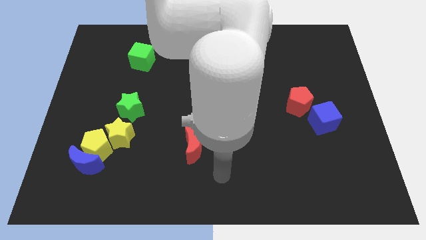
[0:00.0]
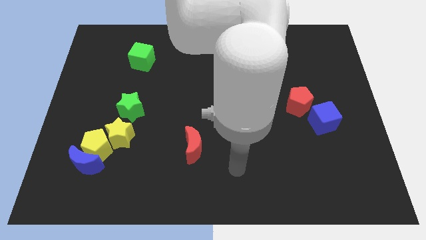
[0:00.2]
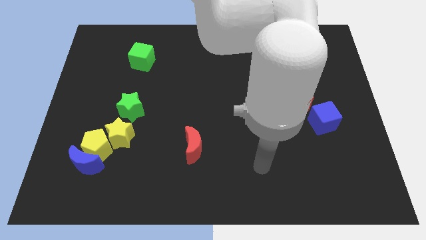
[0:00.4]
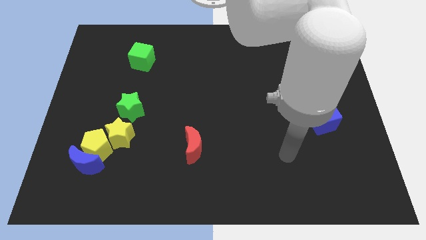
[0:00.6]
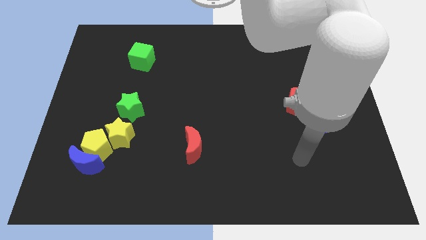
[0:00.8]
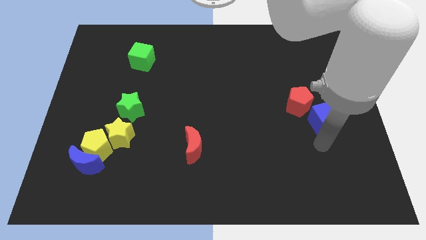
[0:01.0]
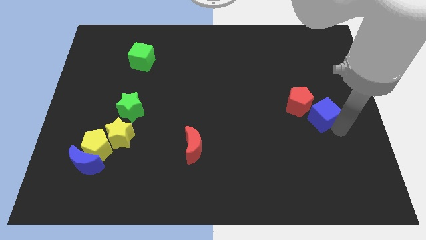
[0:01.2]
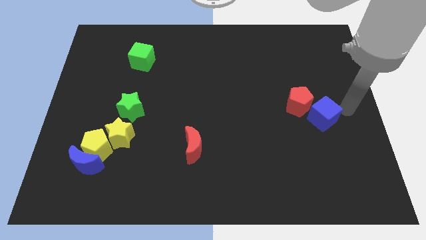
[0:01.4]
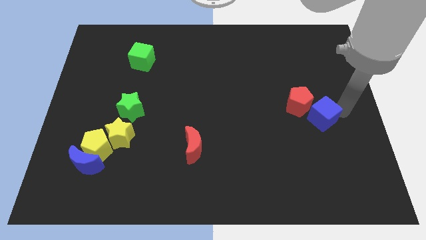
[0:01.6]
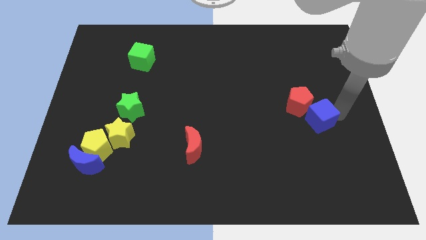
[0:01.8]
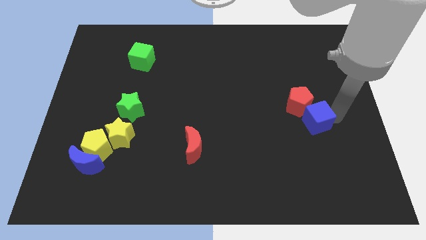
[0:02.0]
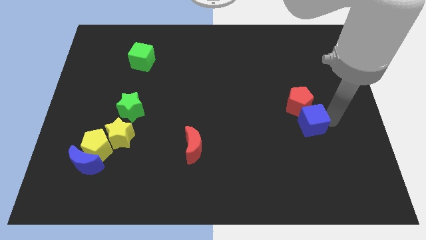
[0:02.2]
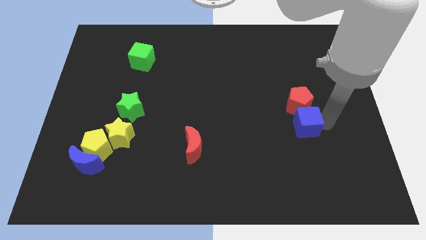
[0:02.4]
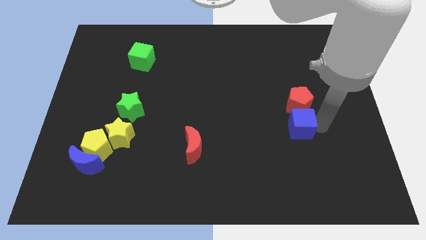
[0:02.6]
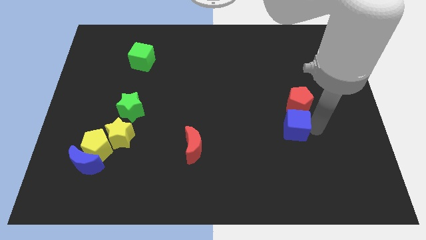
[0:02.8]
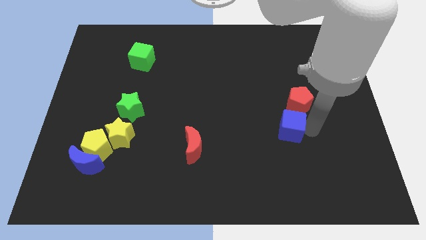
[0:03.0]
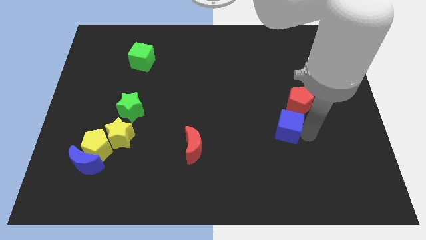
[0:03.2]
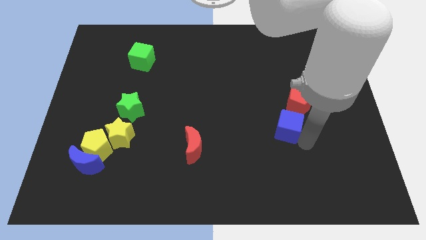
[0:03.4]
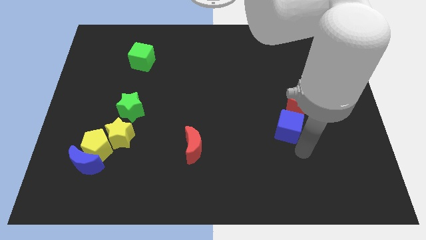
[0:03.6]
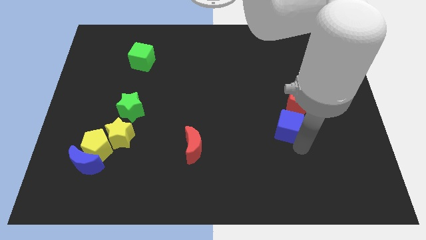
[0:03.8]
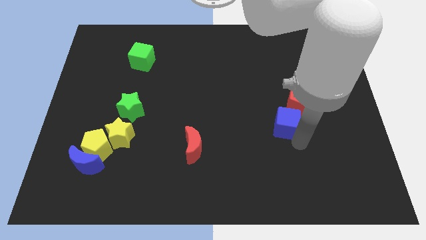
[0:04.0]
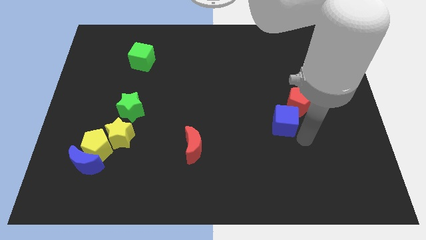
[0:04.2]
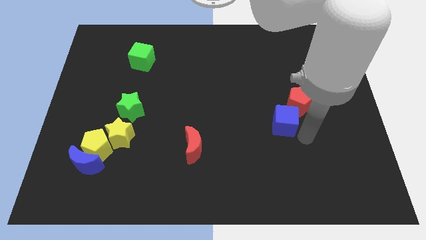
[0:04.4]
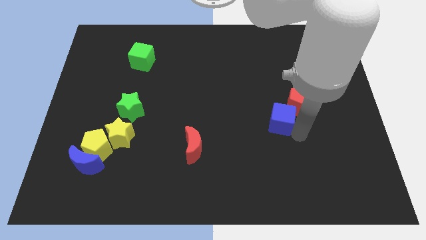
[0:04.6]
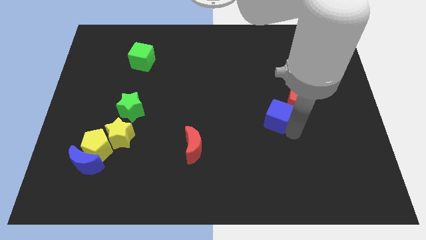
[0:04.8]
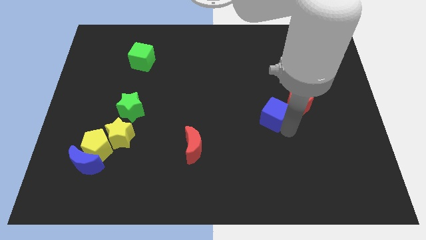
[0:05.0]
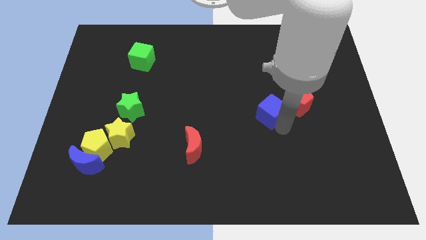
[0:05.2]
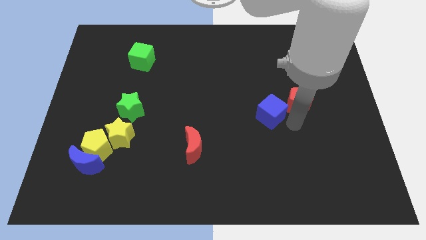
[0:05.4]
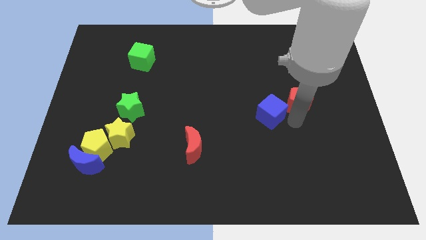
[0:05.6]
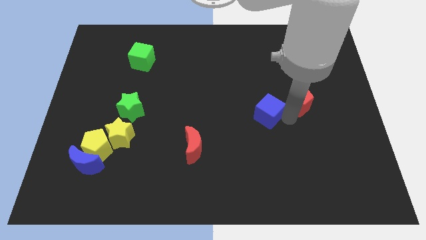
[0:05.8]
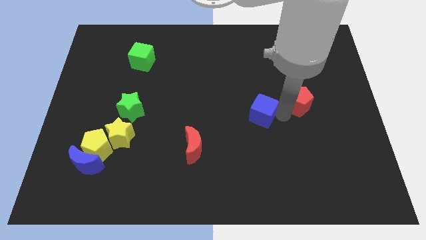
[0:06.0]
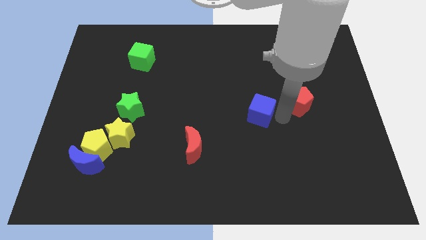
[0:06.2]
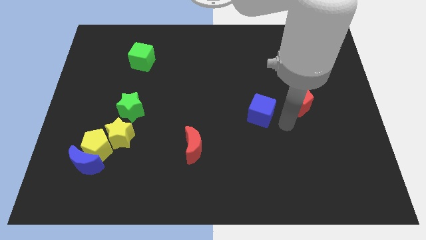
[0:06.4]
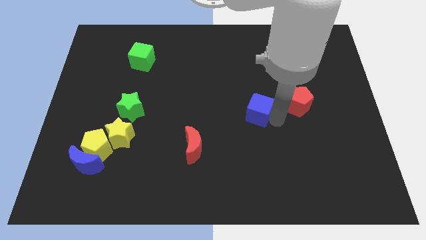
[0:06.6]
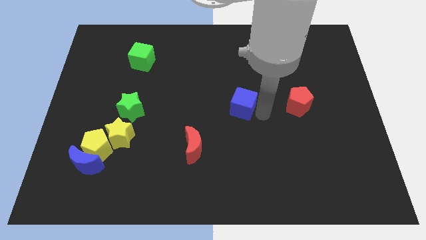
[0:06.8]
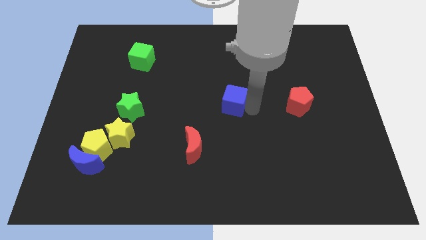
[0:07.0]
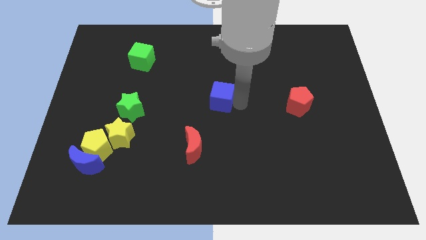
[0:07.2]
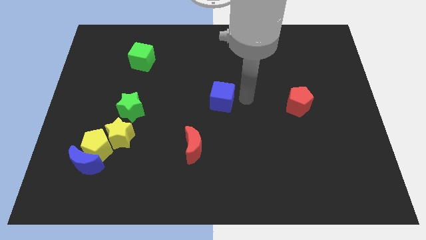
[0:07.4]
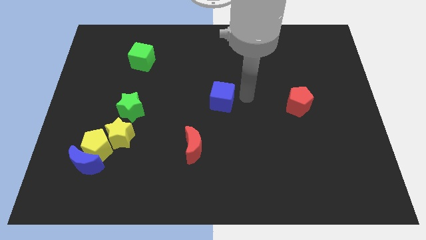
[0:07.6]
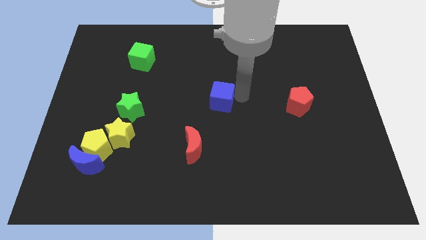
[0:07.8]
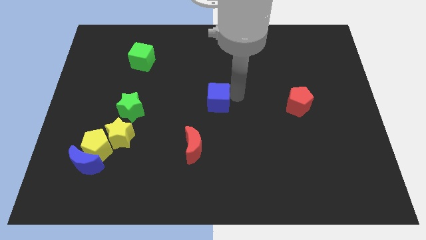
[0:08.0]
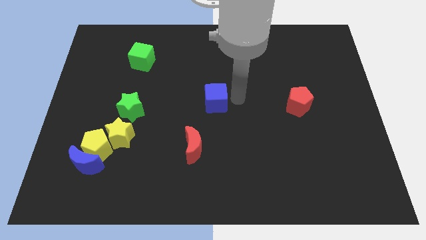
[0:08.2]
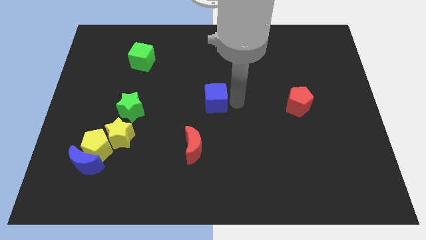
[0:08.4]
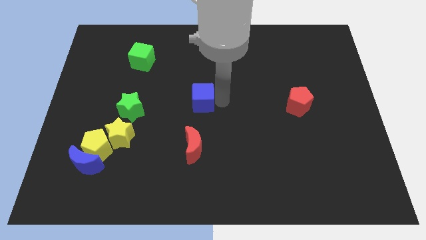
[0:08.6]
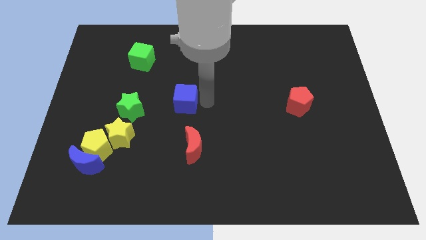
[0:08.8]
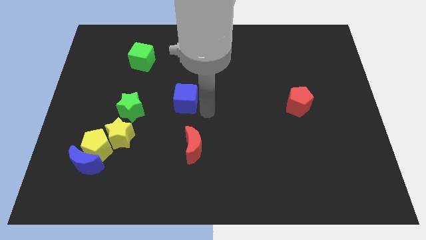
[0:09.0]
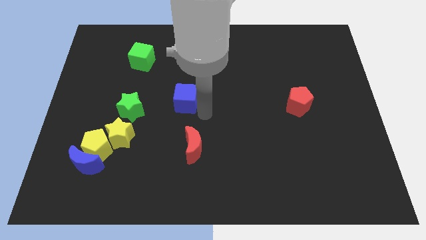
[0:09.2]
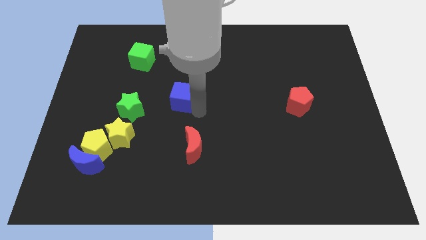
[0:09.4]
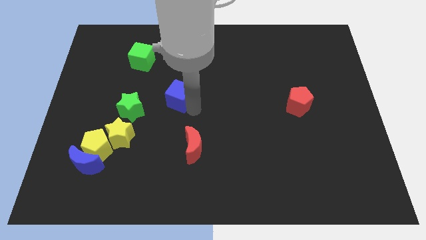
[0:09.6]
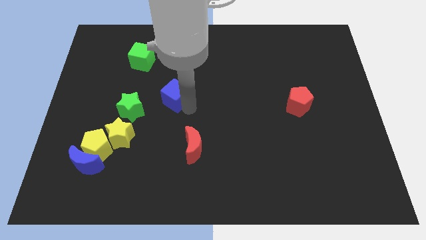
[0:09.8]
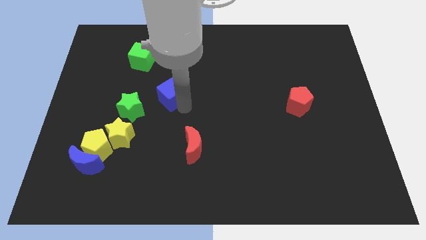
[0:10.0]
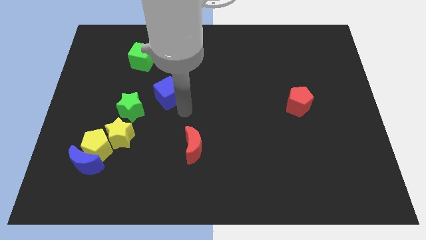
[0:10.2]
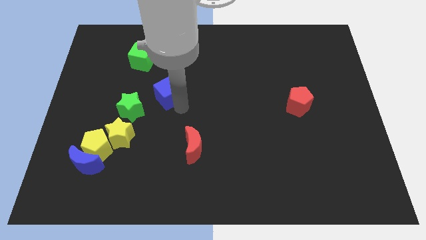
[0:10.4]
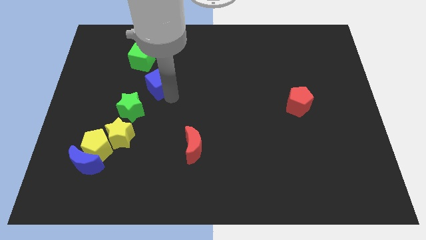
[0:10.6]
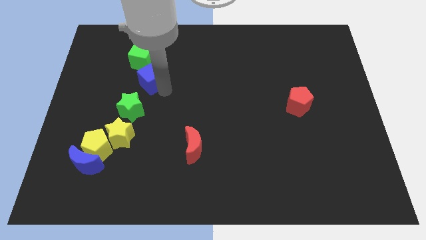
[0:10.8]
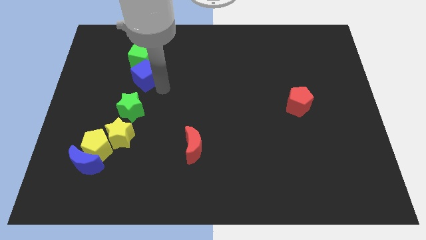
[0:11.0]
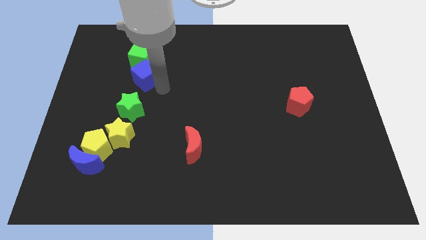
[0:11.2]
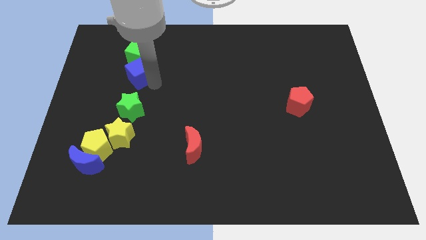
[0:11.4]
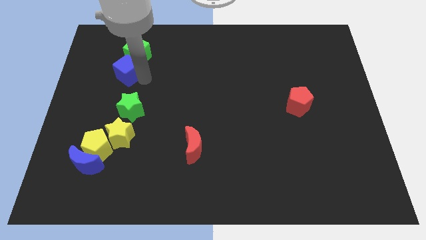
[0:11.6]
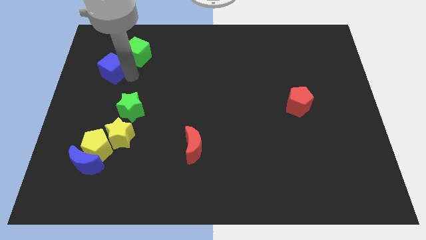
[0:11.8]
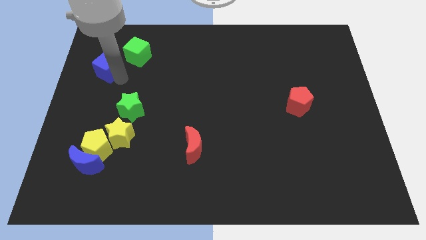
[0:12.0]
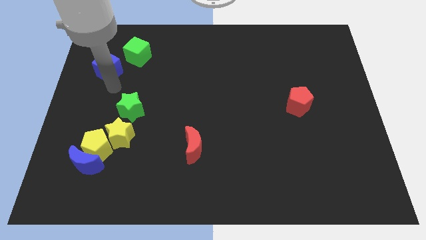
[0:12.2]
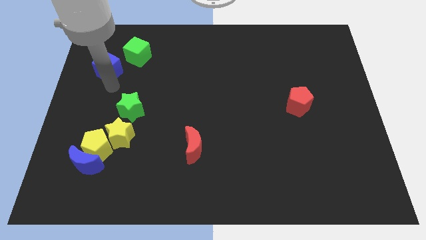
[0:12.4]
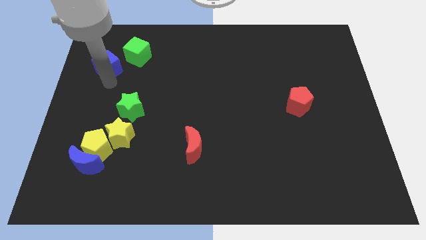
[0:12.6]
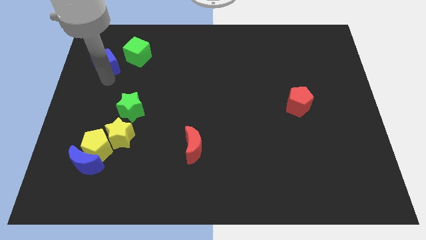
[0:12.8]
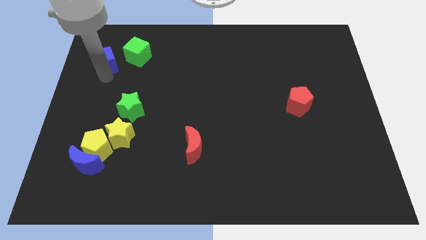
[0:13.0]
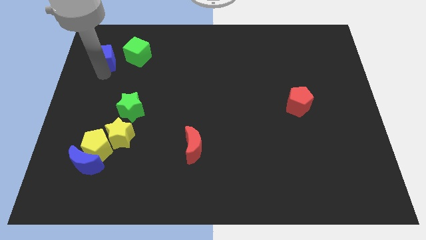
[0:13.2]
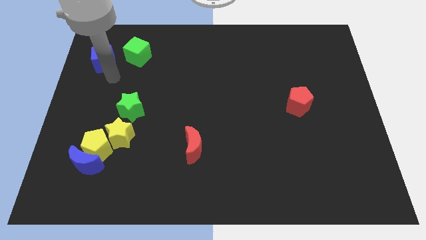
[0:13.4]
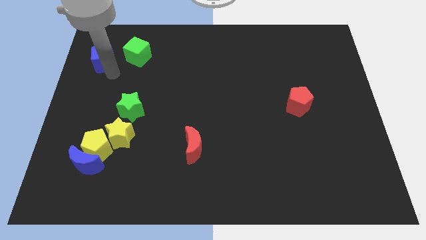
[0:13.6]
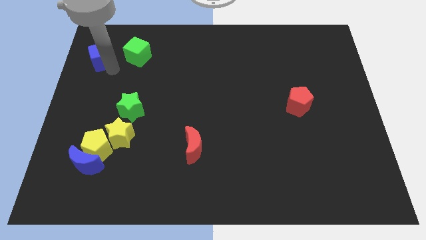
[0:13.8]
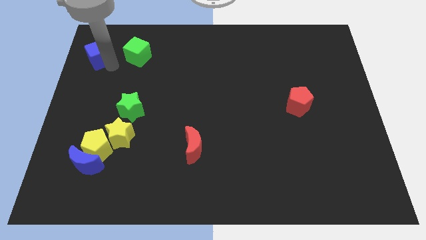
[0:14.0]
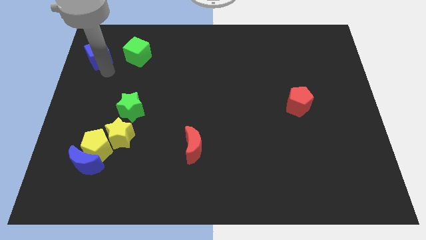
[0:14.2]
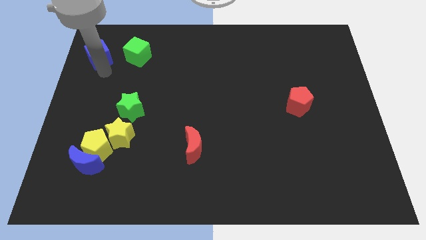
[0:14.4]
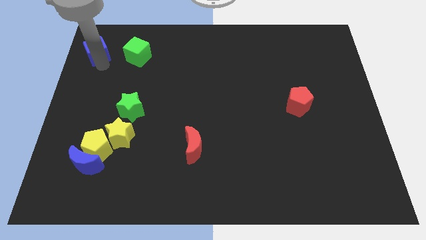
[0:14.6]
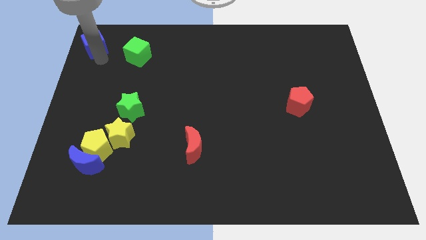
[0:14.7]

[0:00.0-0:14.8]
slide the blue cube to the top left corner
